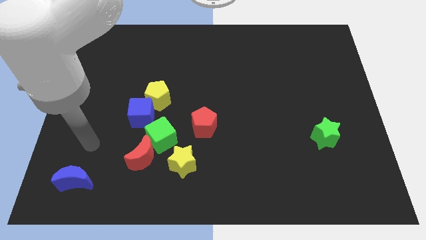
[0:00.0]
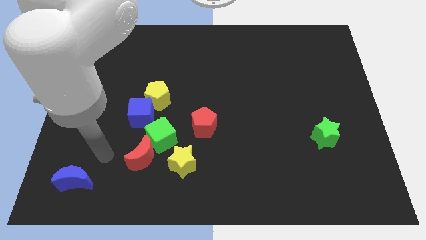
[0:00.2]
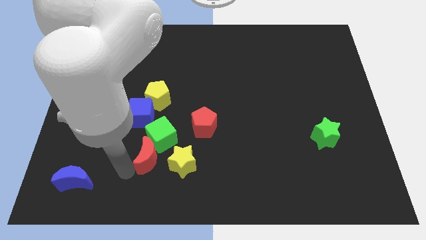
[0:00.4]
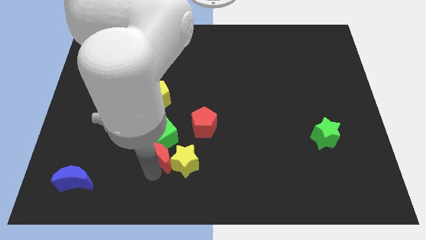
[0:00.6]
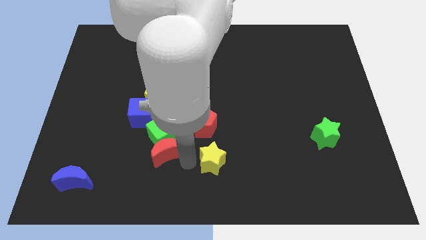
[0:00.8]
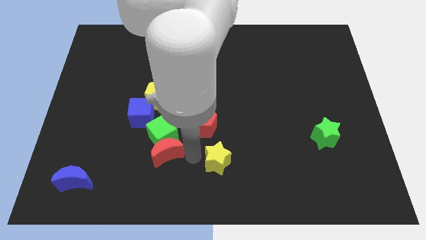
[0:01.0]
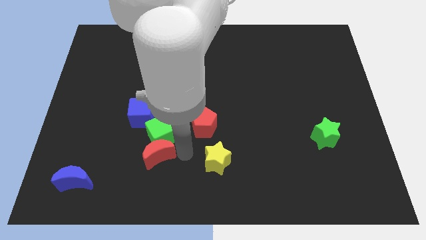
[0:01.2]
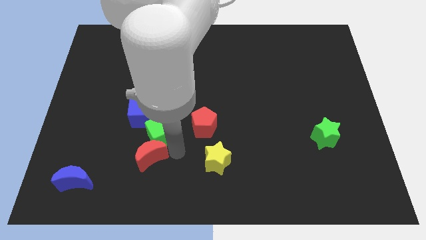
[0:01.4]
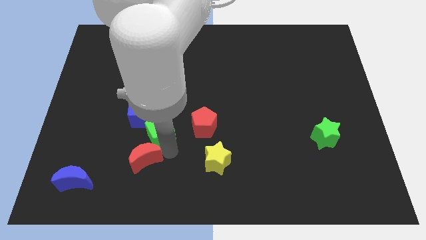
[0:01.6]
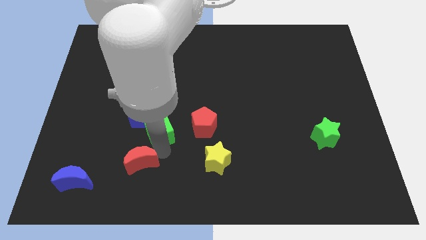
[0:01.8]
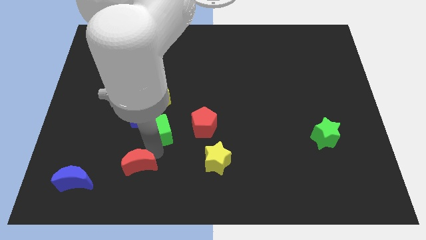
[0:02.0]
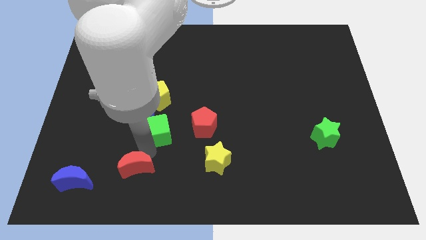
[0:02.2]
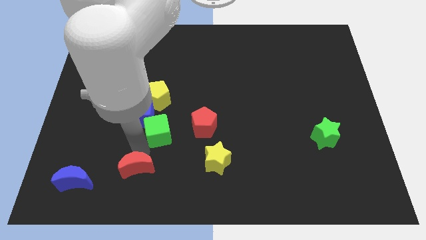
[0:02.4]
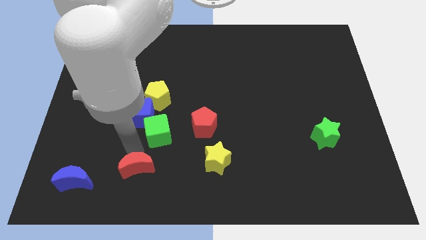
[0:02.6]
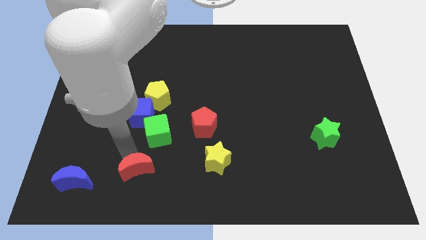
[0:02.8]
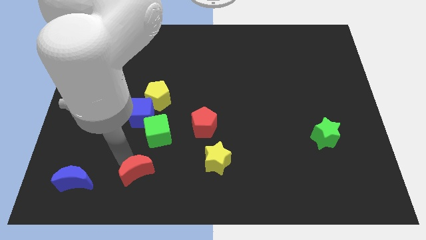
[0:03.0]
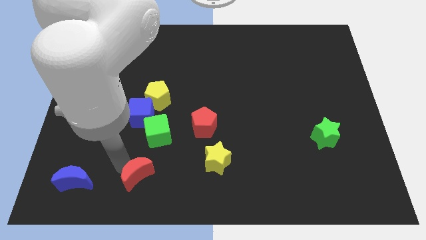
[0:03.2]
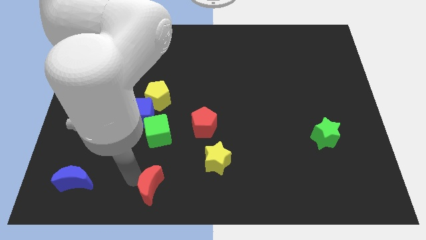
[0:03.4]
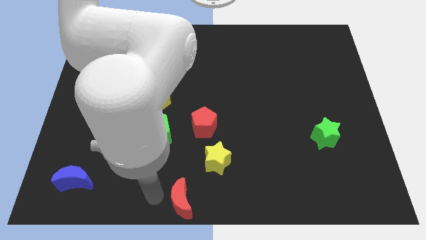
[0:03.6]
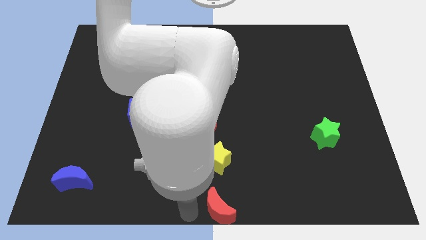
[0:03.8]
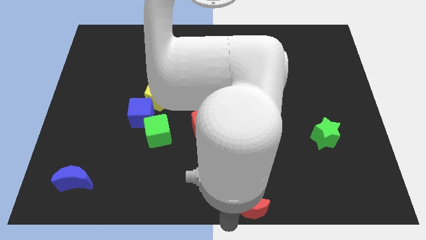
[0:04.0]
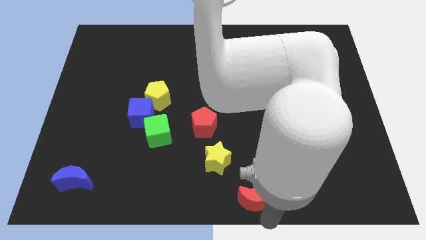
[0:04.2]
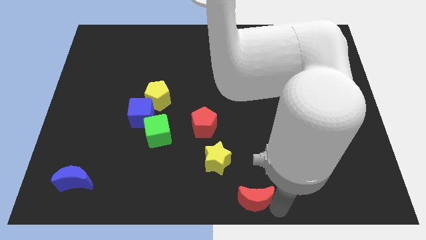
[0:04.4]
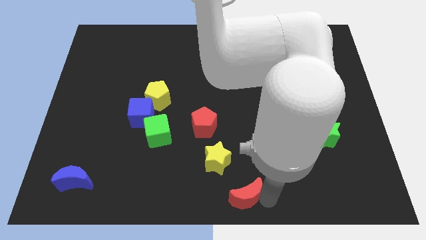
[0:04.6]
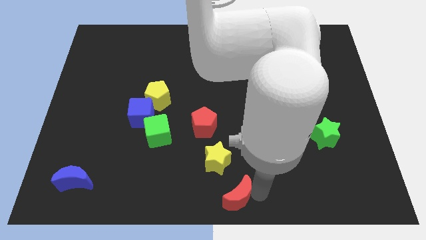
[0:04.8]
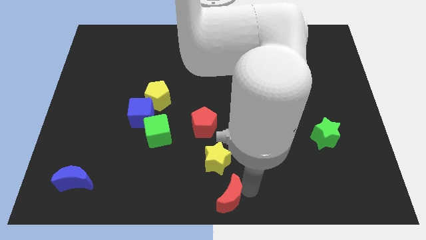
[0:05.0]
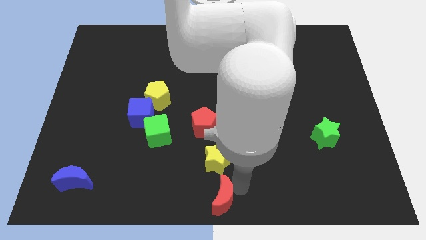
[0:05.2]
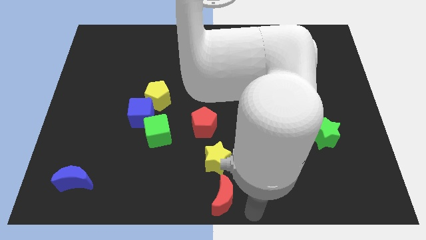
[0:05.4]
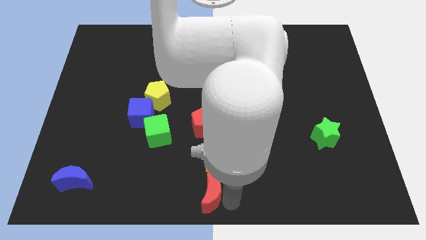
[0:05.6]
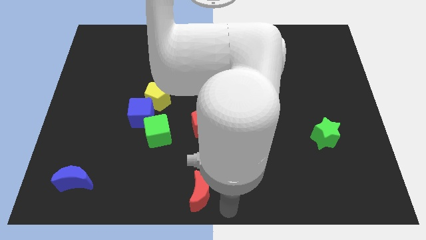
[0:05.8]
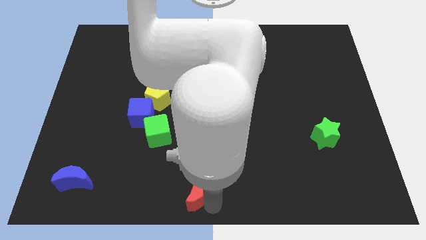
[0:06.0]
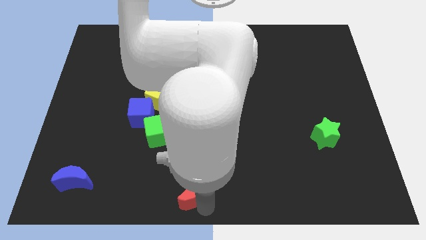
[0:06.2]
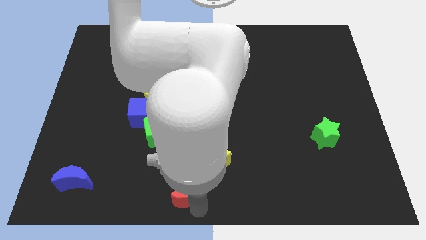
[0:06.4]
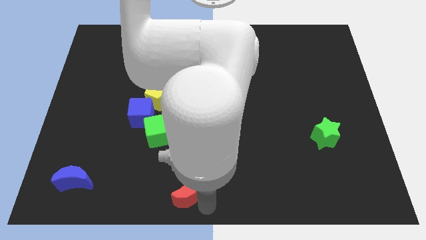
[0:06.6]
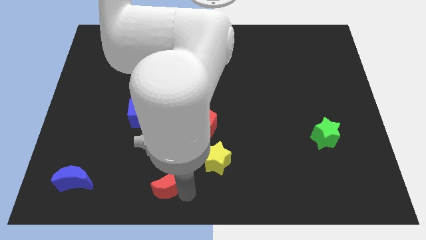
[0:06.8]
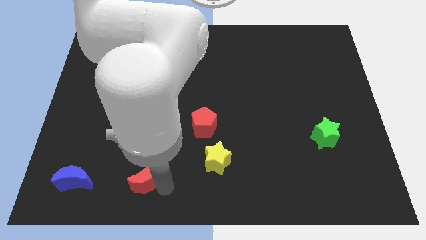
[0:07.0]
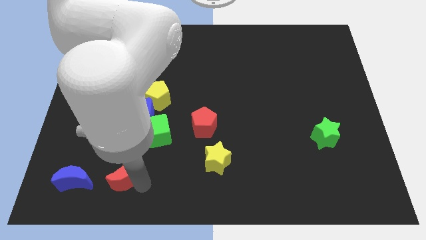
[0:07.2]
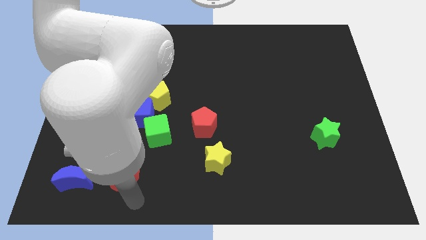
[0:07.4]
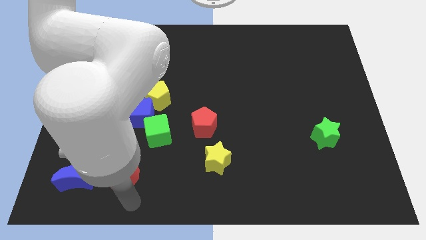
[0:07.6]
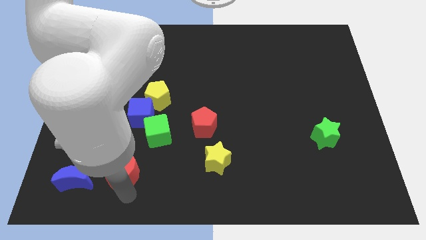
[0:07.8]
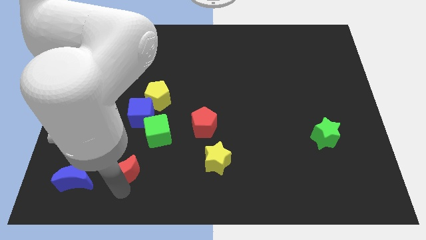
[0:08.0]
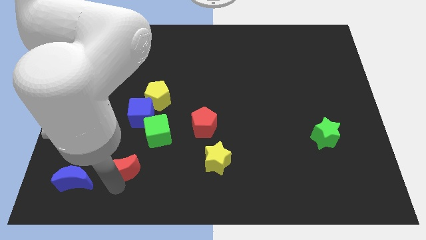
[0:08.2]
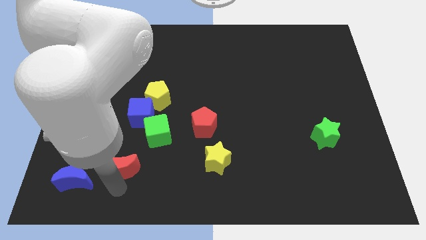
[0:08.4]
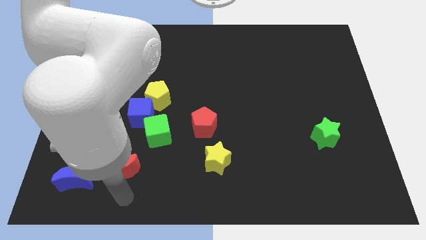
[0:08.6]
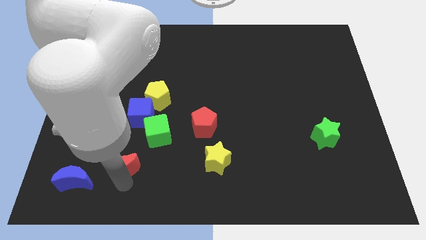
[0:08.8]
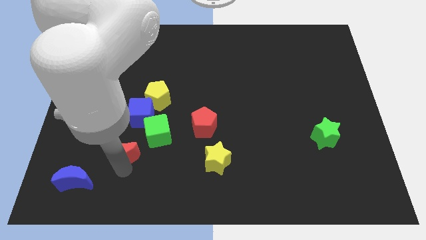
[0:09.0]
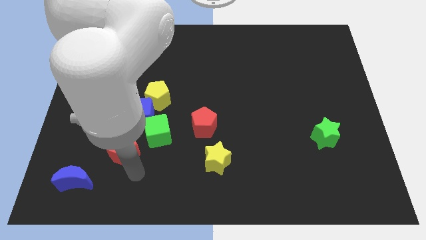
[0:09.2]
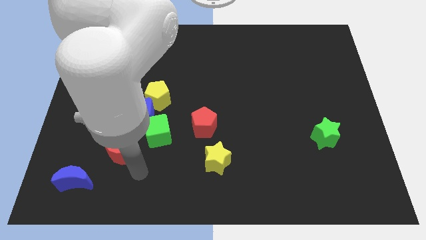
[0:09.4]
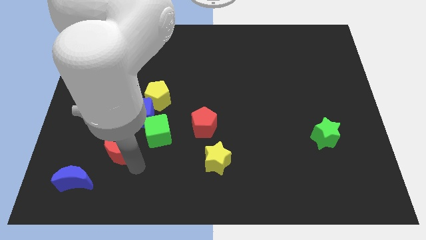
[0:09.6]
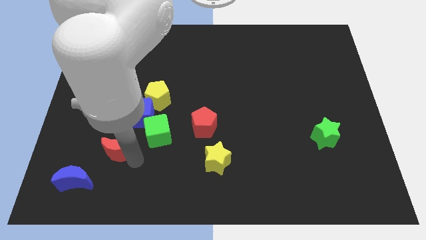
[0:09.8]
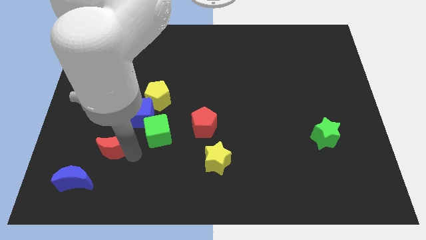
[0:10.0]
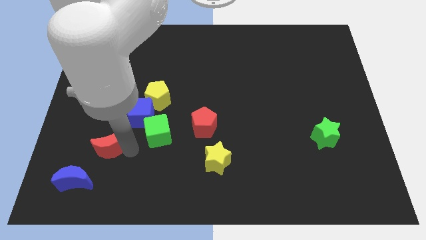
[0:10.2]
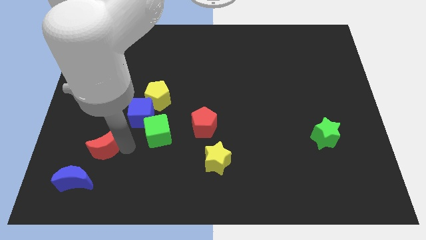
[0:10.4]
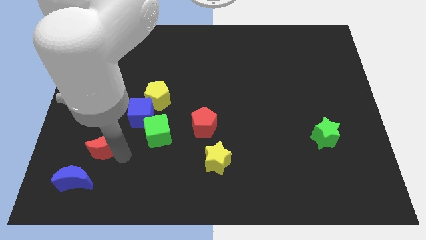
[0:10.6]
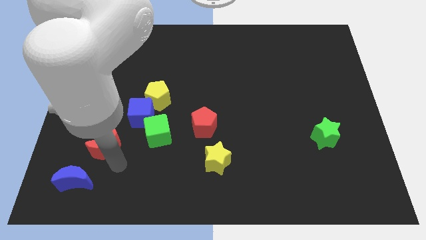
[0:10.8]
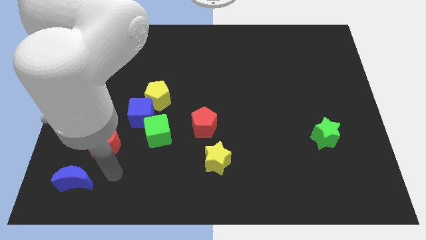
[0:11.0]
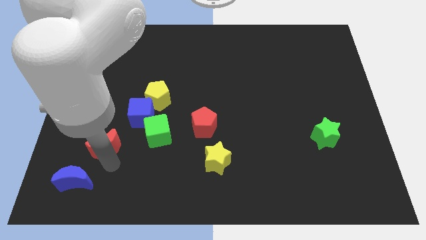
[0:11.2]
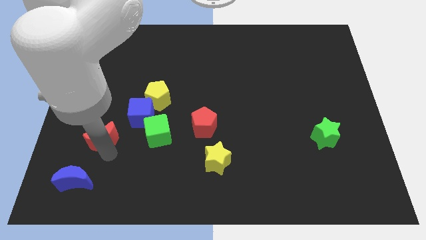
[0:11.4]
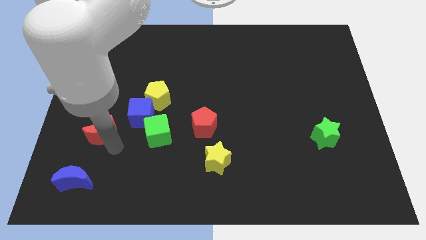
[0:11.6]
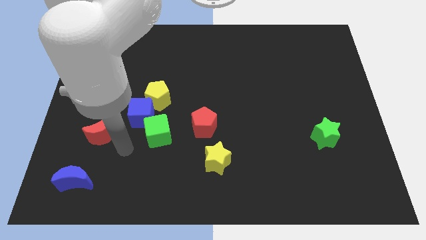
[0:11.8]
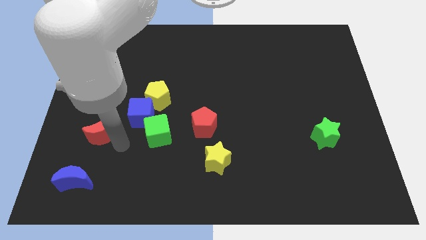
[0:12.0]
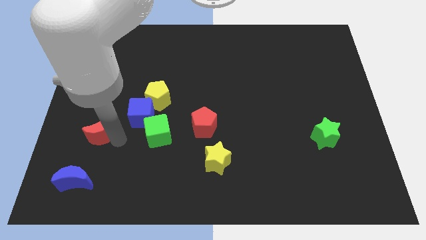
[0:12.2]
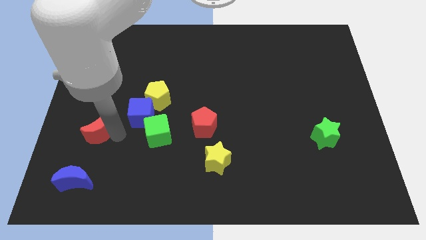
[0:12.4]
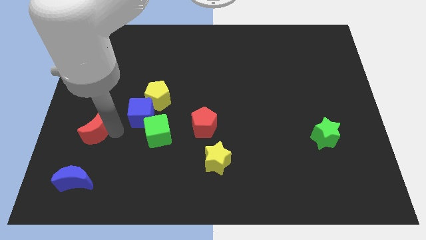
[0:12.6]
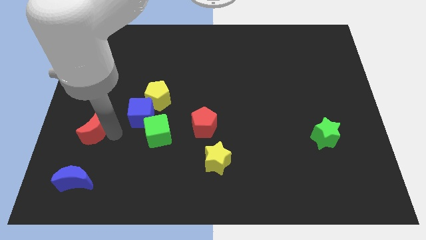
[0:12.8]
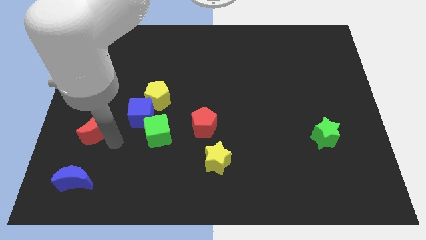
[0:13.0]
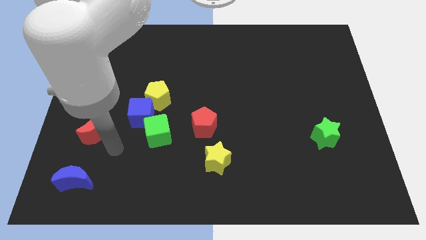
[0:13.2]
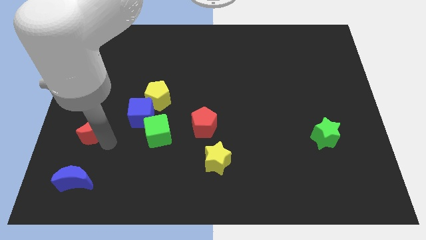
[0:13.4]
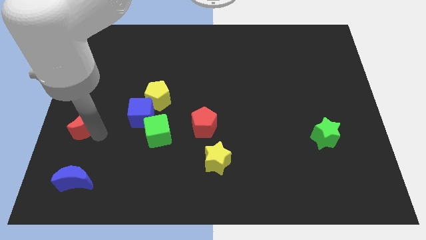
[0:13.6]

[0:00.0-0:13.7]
push the red moon to the left side
